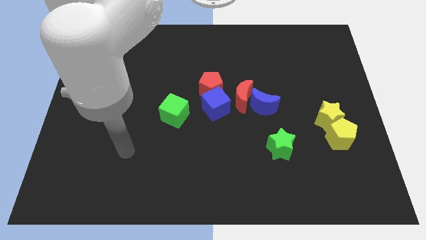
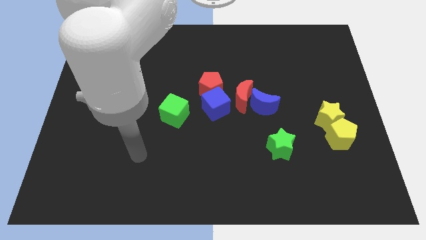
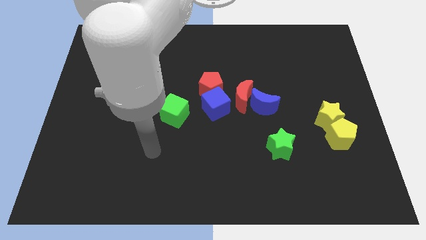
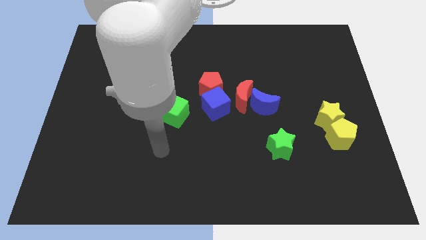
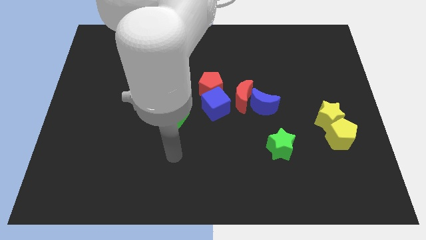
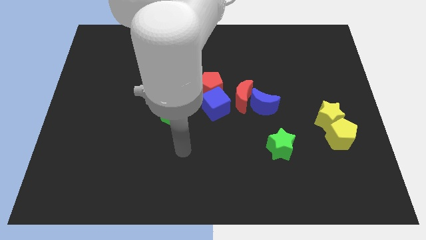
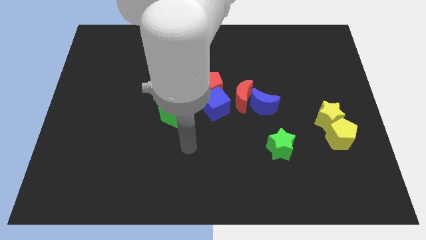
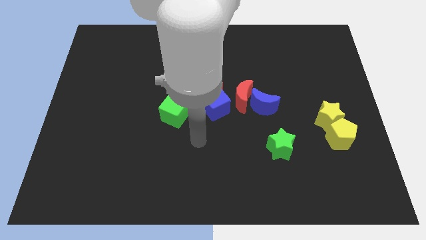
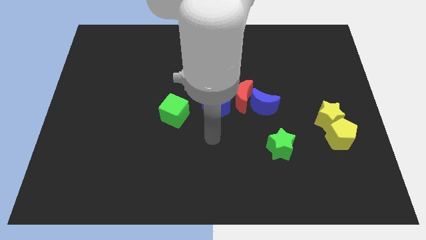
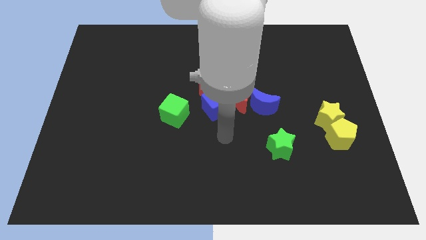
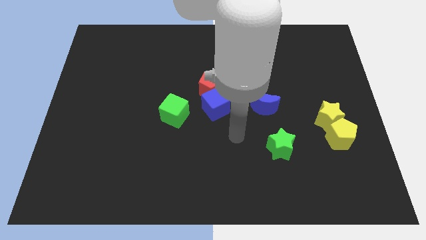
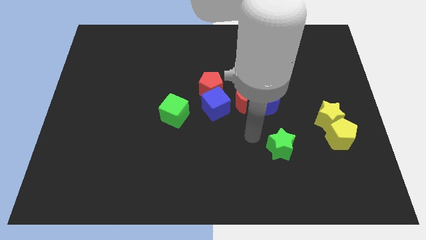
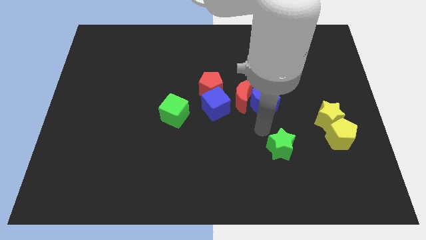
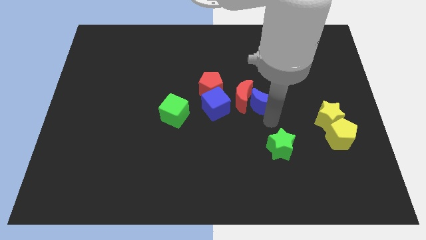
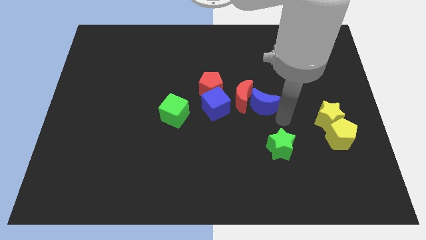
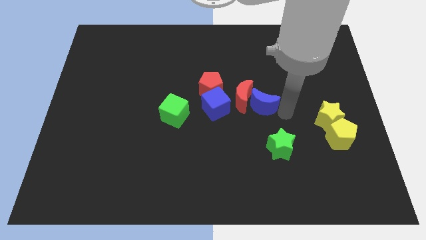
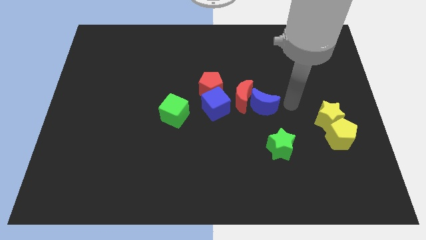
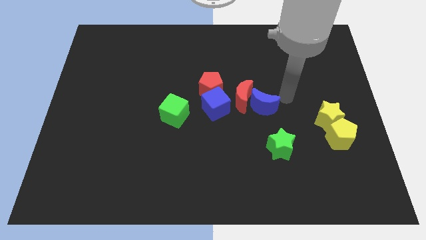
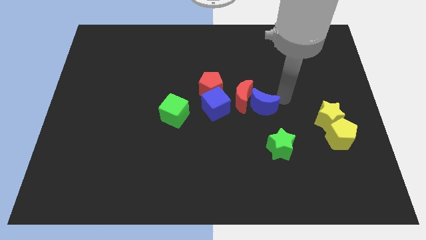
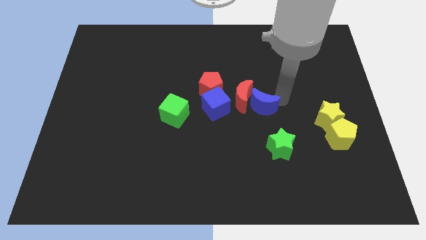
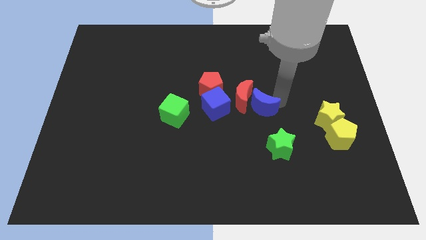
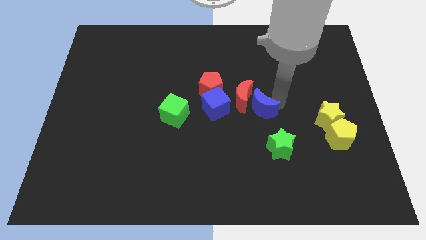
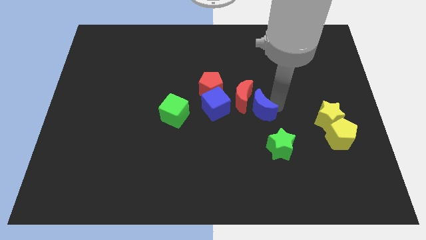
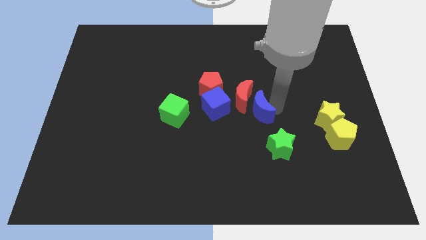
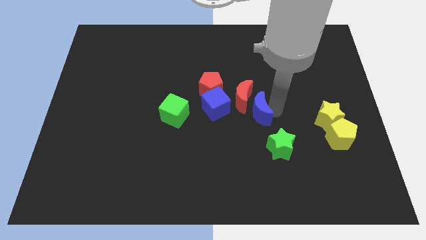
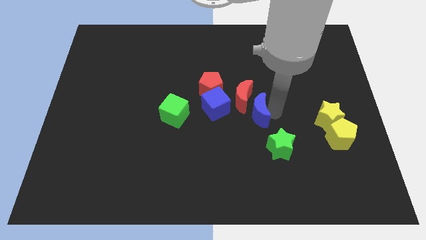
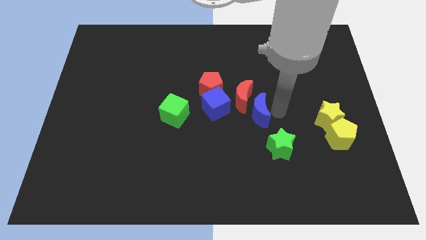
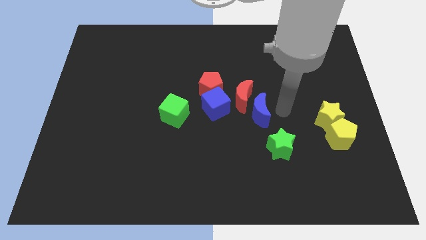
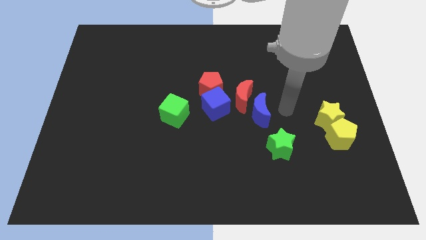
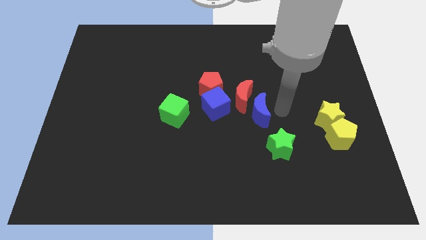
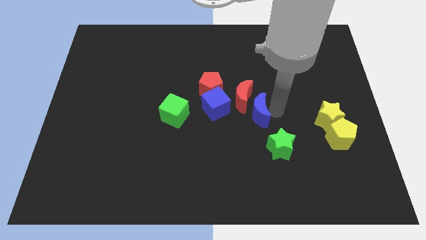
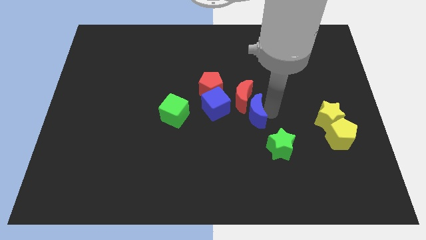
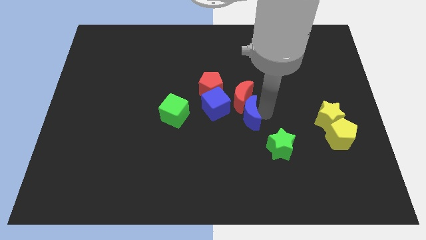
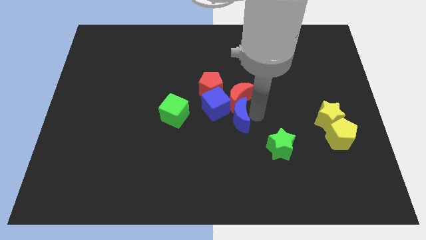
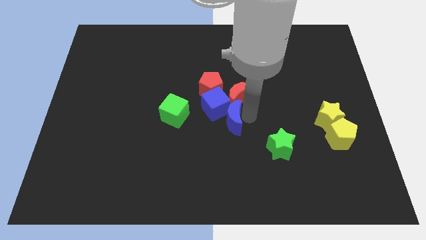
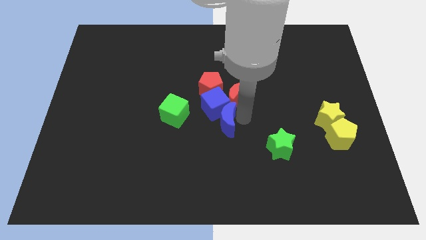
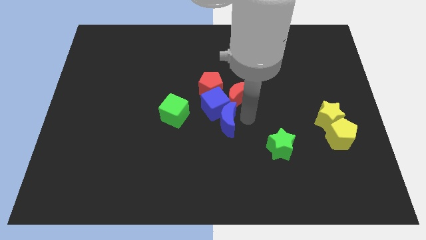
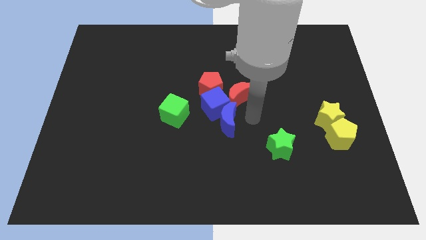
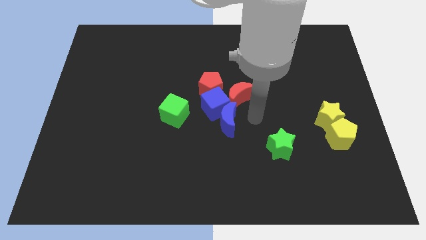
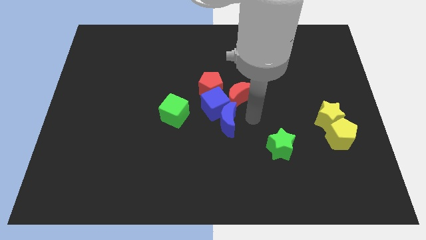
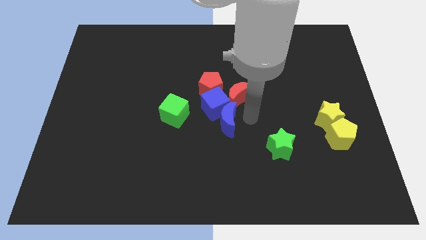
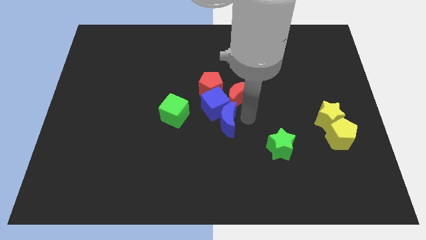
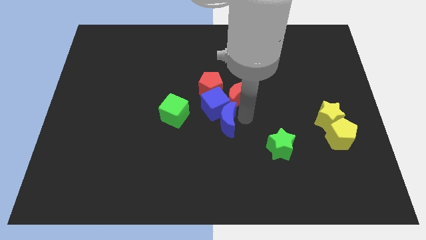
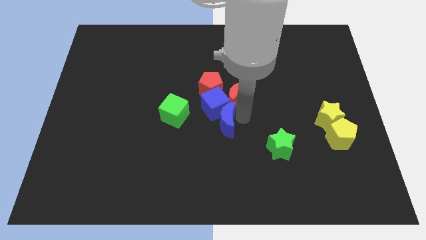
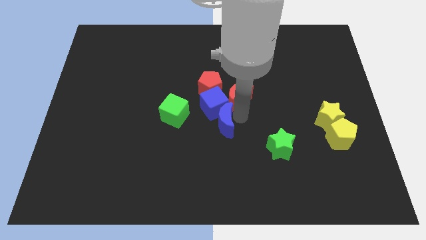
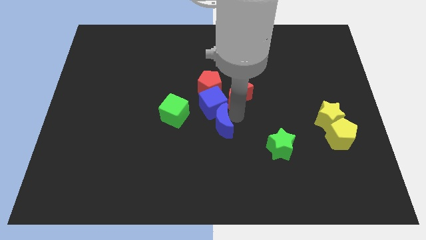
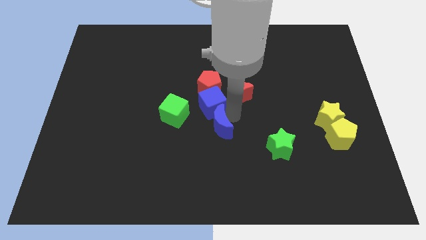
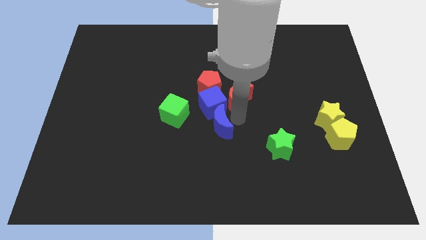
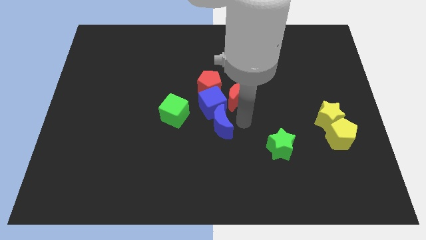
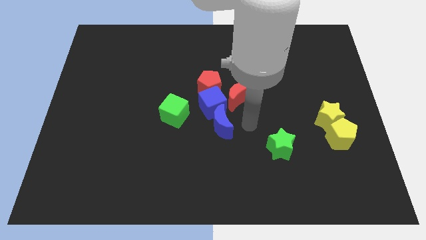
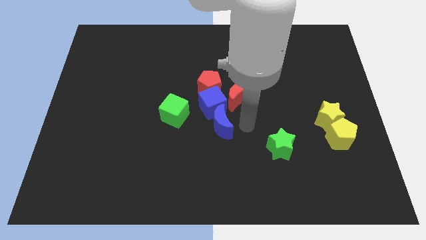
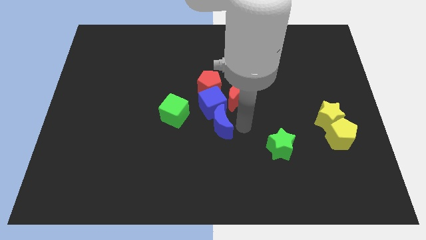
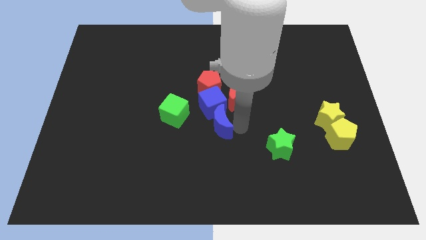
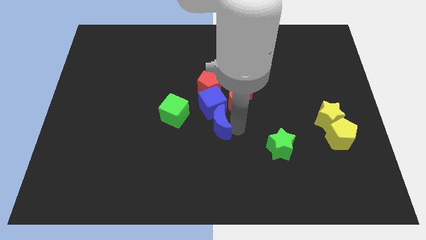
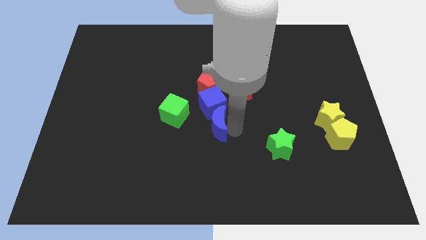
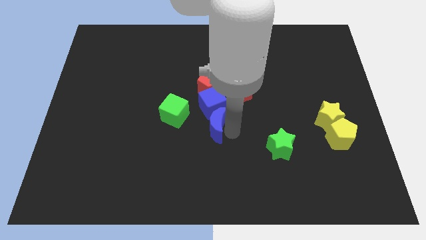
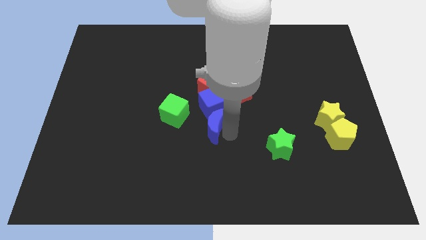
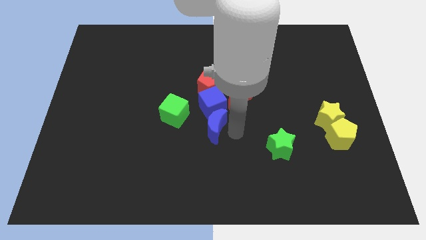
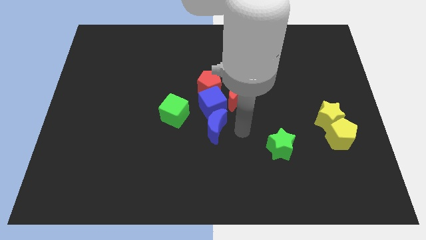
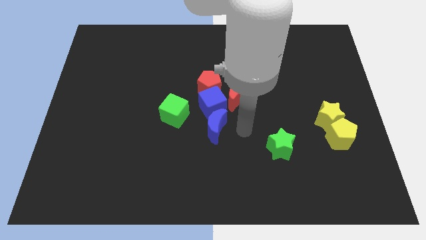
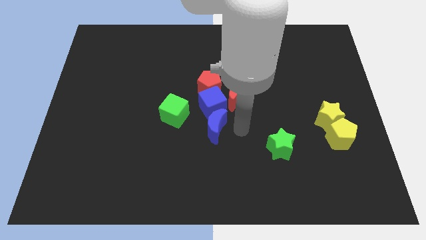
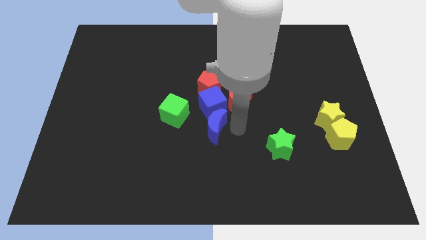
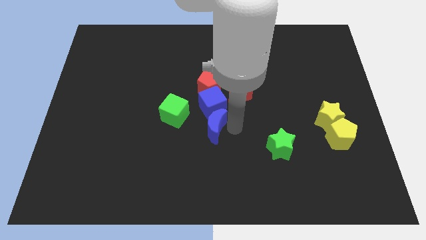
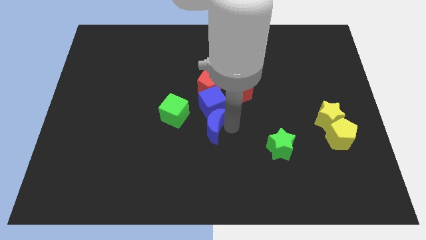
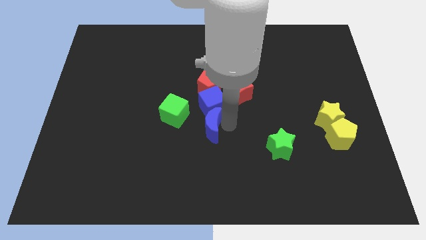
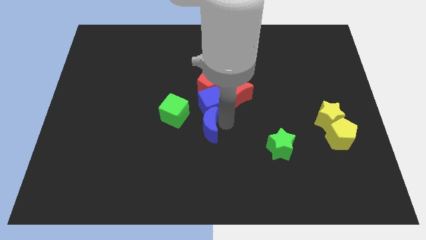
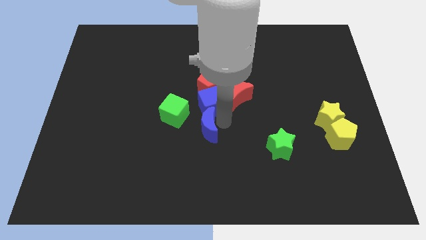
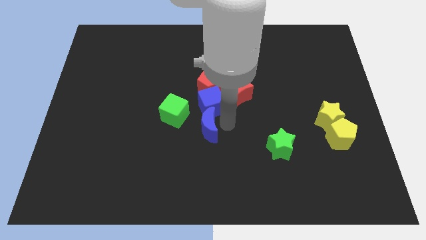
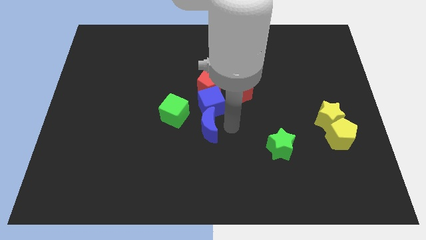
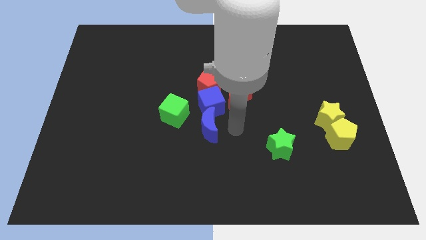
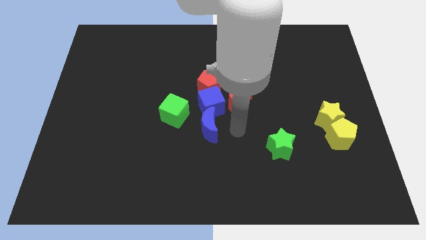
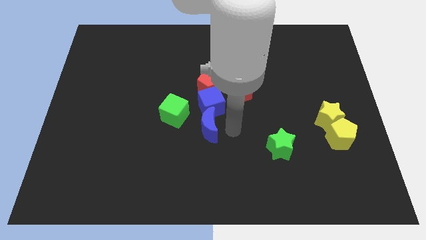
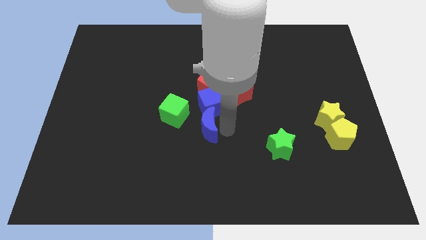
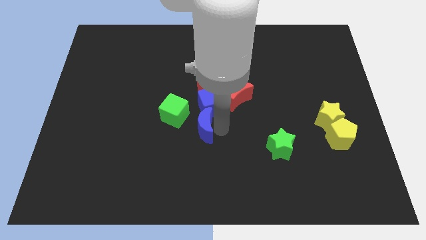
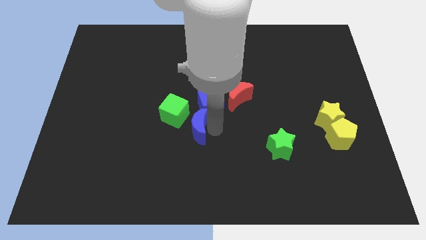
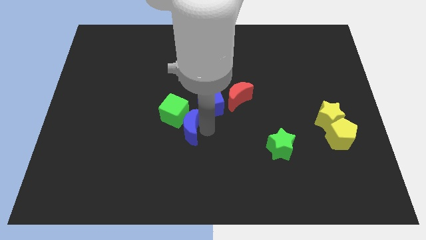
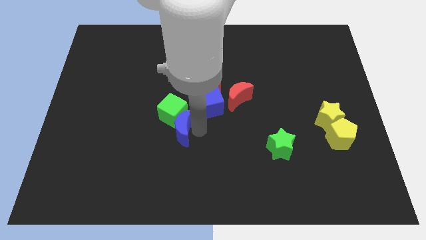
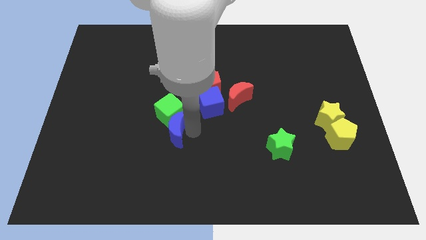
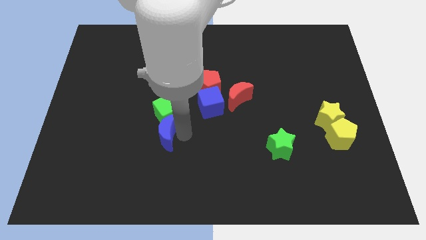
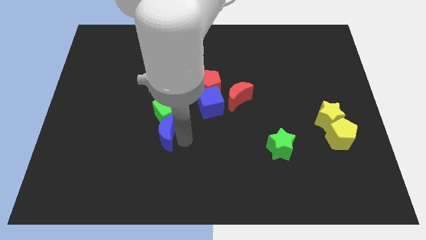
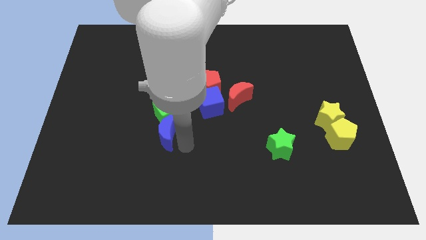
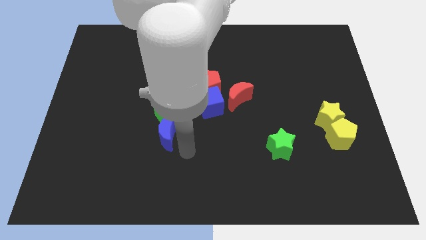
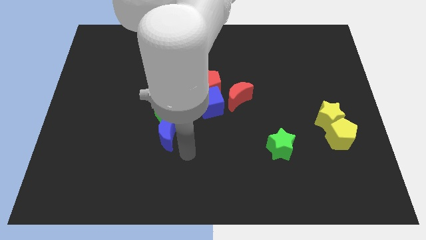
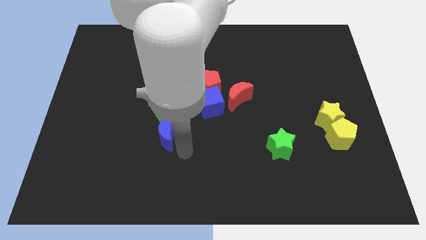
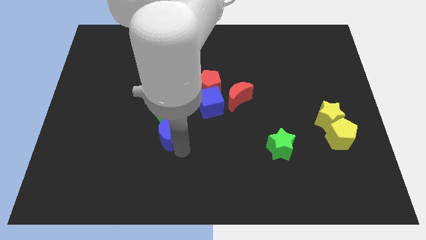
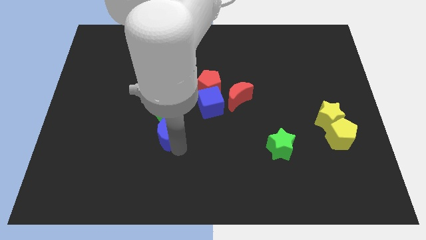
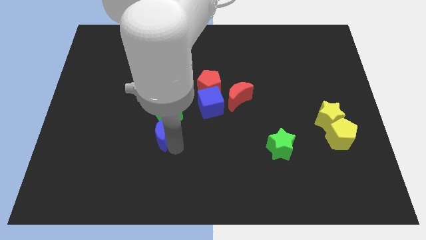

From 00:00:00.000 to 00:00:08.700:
slide the blue moon left
